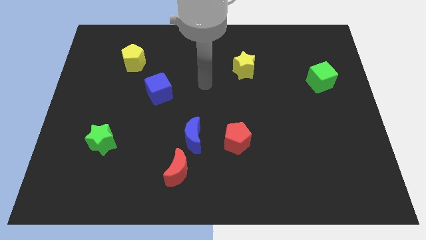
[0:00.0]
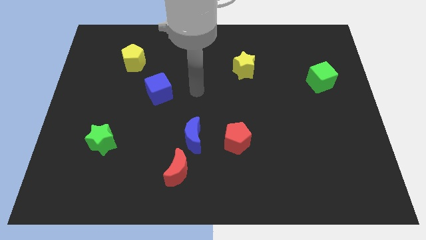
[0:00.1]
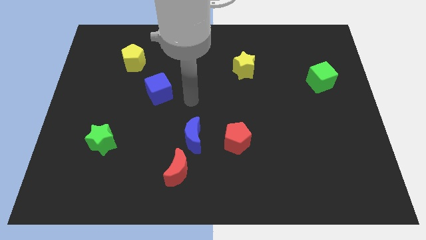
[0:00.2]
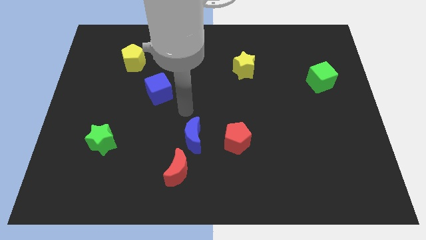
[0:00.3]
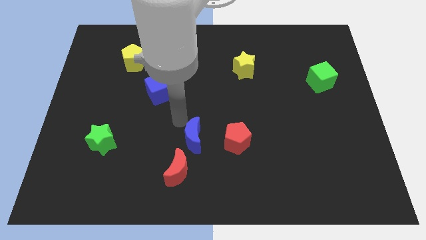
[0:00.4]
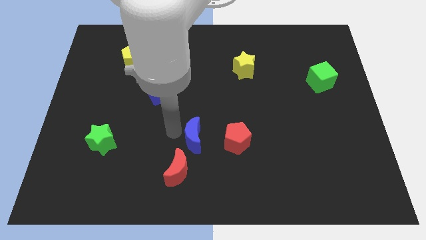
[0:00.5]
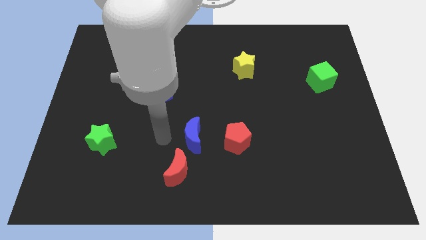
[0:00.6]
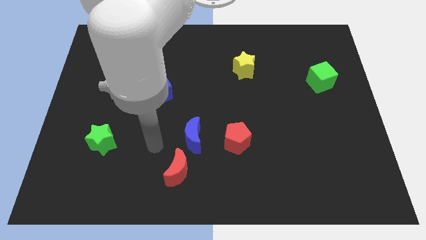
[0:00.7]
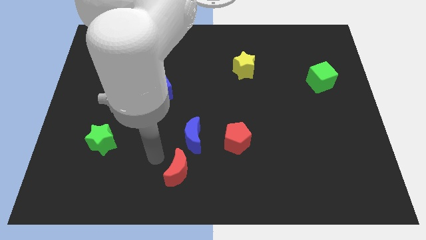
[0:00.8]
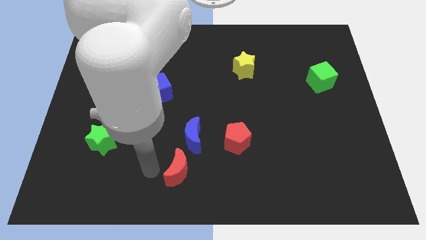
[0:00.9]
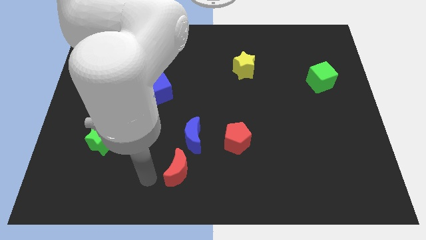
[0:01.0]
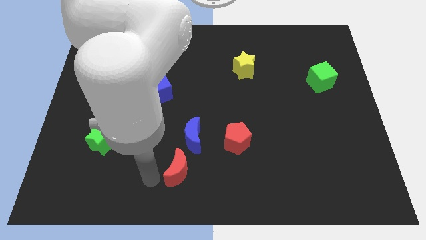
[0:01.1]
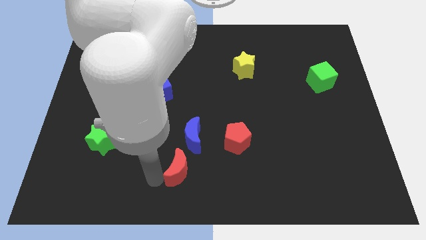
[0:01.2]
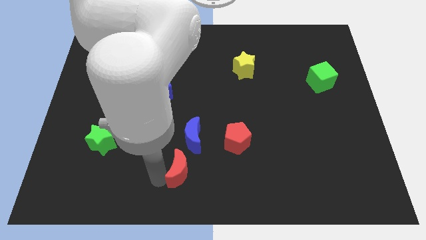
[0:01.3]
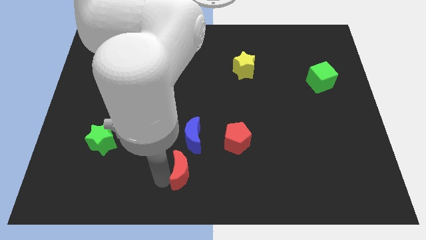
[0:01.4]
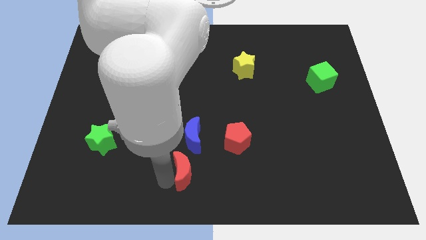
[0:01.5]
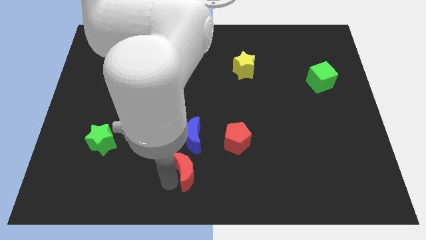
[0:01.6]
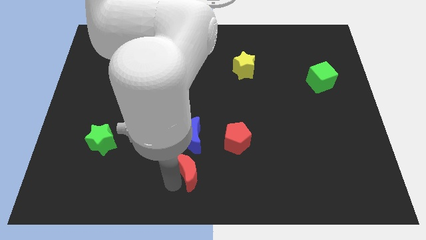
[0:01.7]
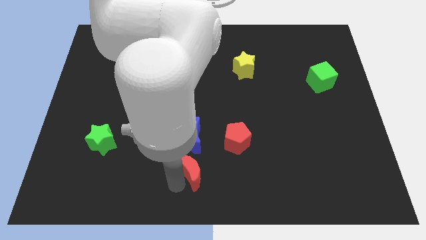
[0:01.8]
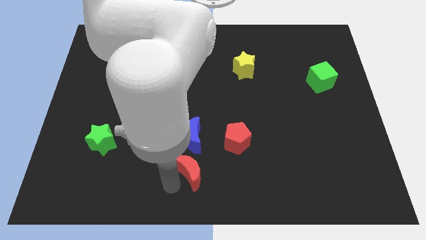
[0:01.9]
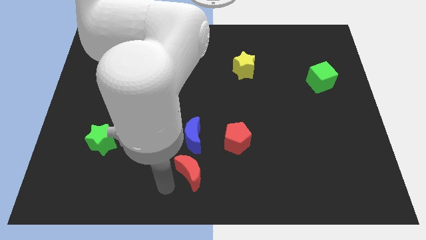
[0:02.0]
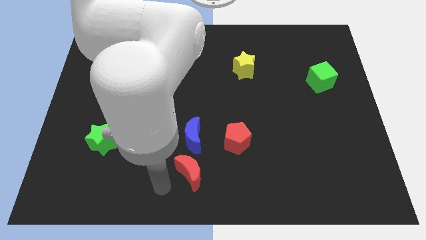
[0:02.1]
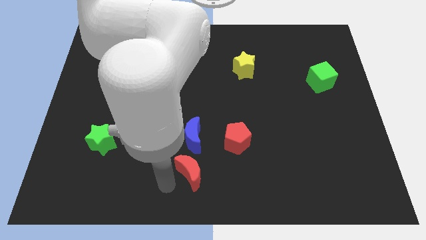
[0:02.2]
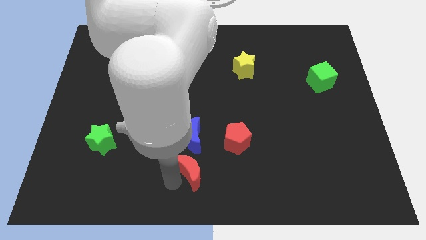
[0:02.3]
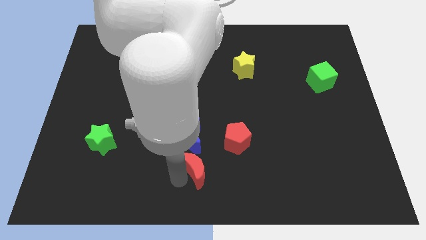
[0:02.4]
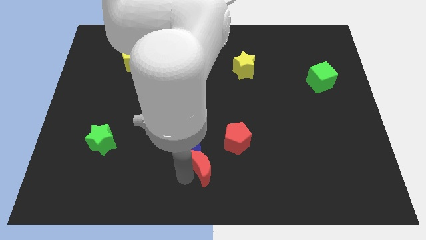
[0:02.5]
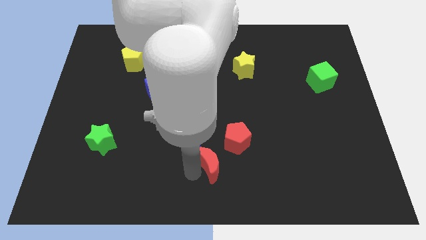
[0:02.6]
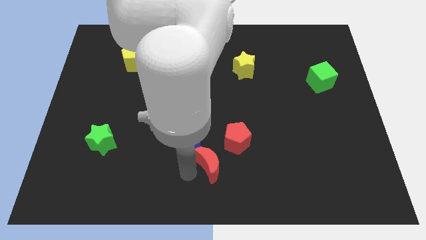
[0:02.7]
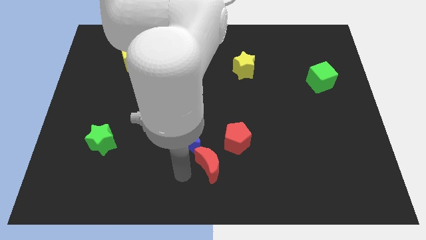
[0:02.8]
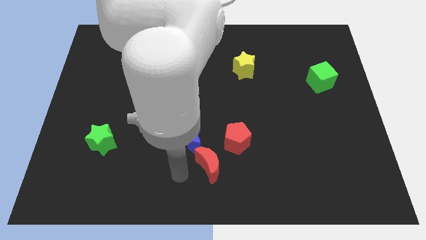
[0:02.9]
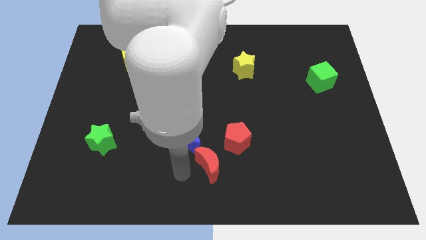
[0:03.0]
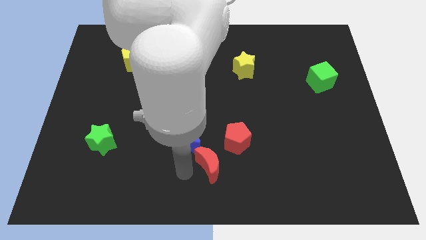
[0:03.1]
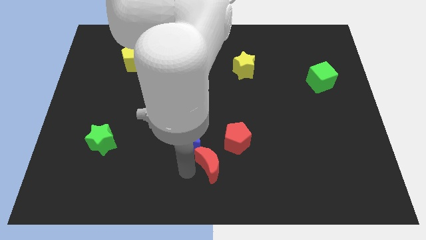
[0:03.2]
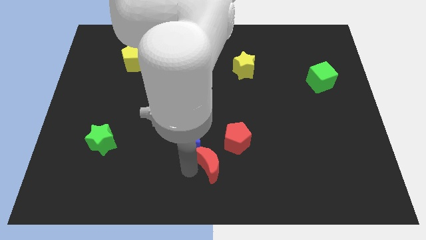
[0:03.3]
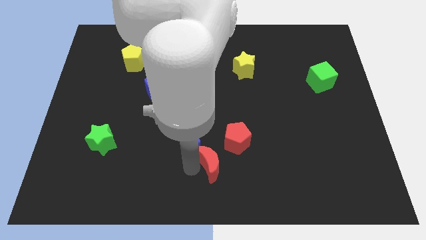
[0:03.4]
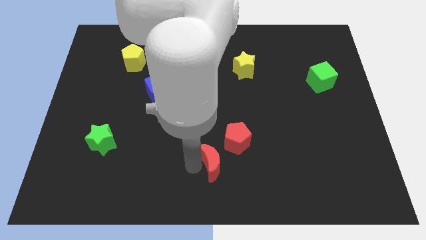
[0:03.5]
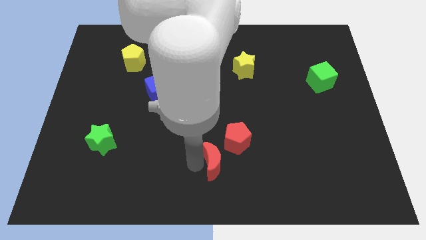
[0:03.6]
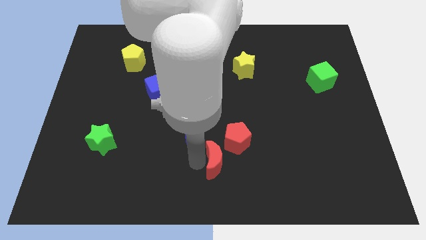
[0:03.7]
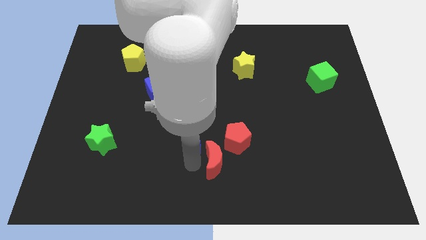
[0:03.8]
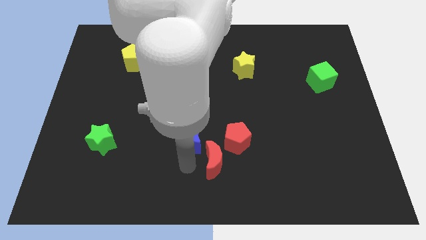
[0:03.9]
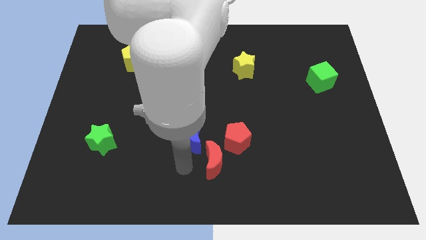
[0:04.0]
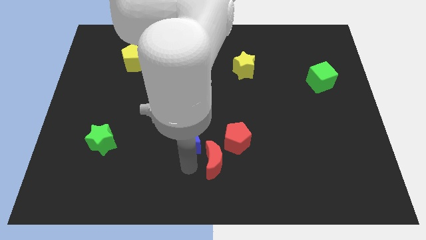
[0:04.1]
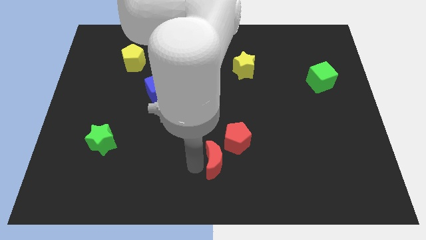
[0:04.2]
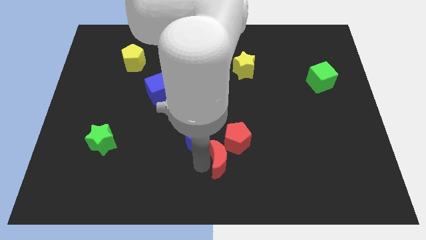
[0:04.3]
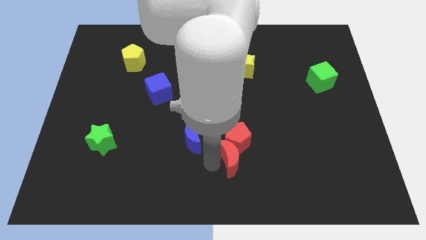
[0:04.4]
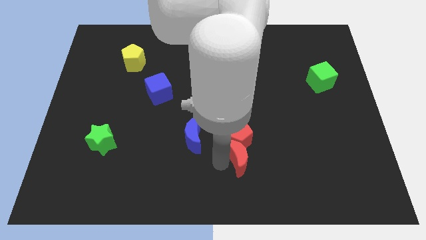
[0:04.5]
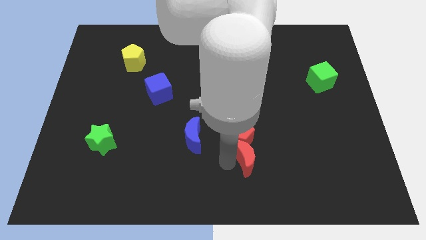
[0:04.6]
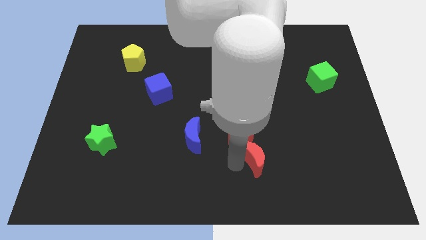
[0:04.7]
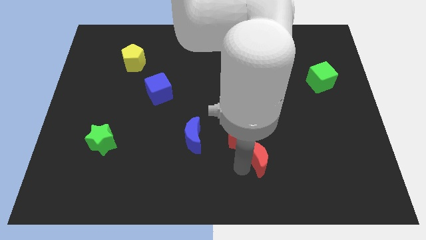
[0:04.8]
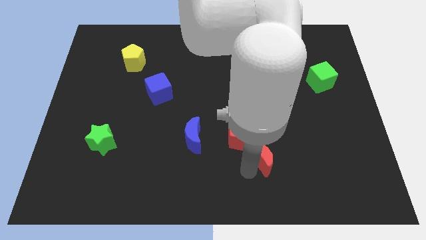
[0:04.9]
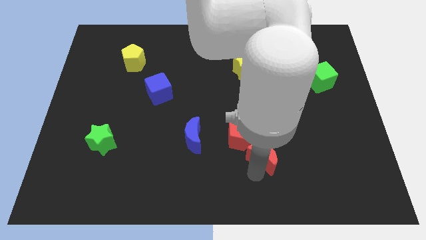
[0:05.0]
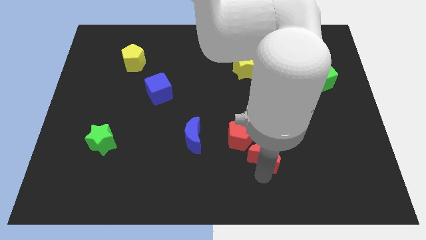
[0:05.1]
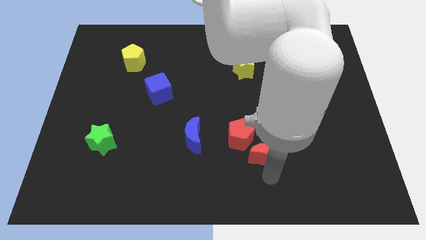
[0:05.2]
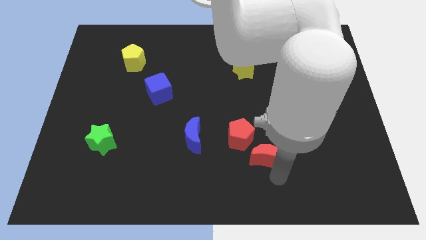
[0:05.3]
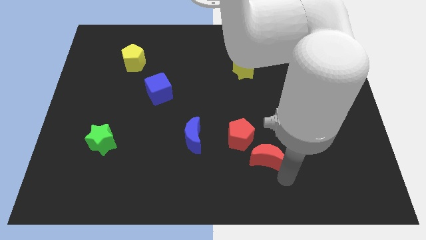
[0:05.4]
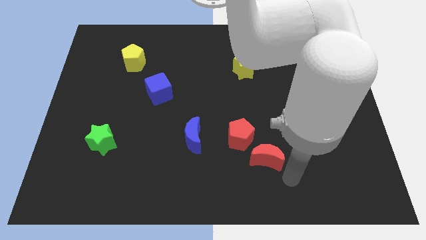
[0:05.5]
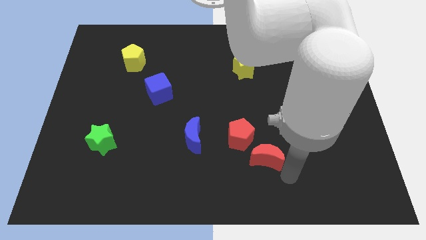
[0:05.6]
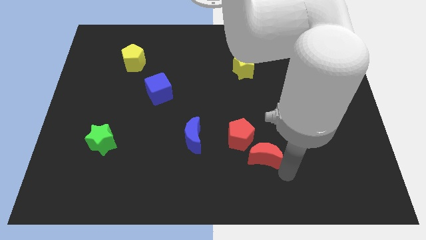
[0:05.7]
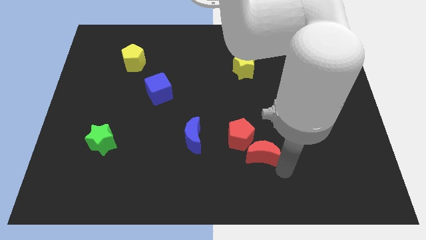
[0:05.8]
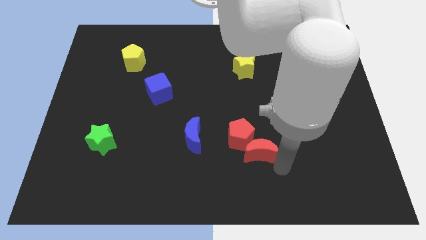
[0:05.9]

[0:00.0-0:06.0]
move the red moon to the right side of the blue moon

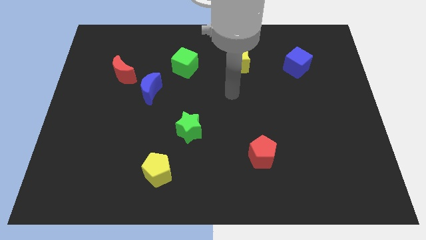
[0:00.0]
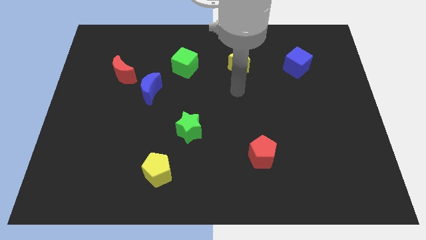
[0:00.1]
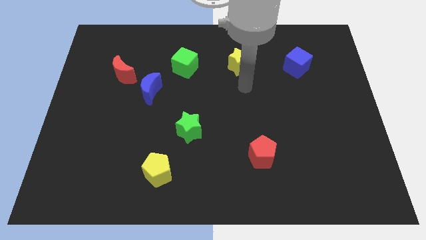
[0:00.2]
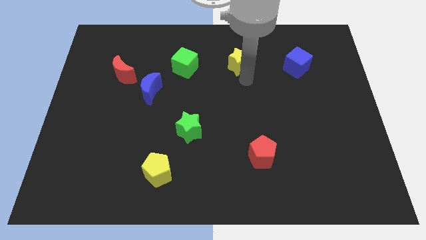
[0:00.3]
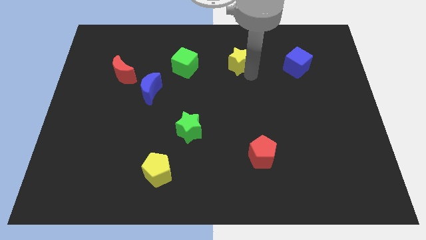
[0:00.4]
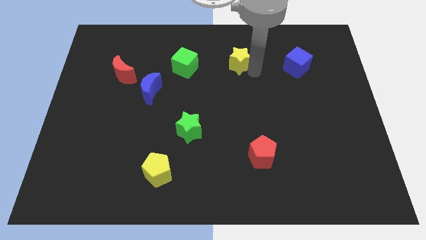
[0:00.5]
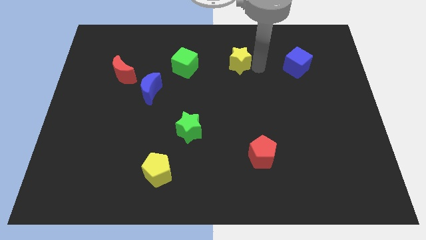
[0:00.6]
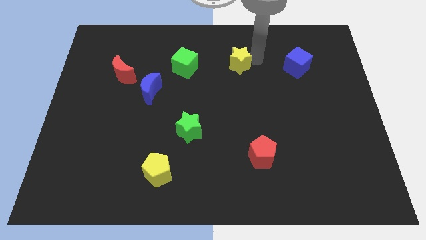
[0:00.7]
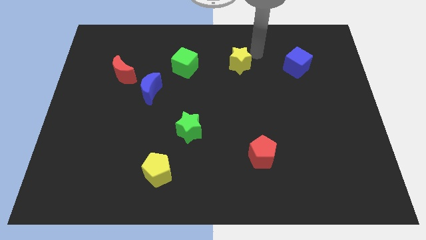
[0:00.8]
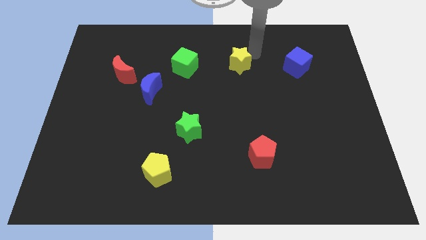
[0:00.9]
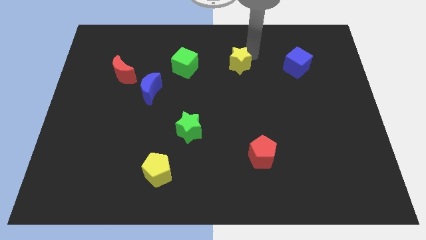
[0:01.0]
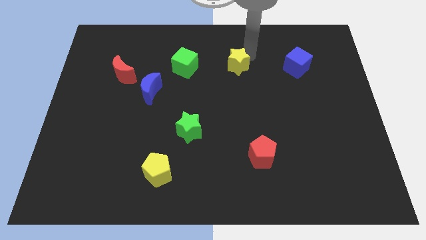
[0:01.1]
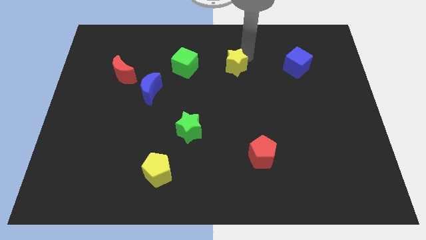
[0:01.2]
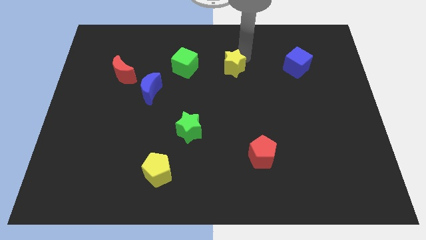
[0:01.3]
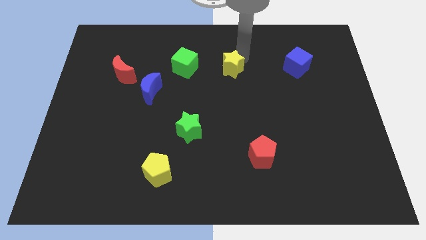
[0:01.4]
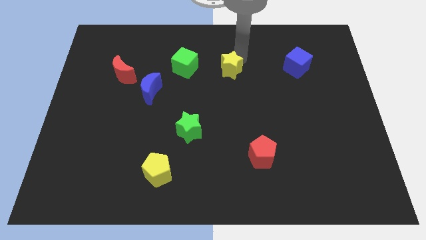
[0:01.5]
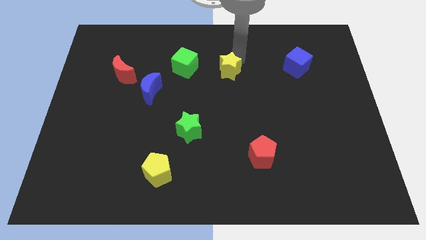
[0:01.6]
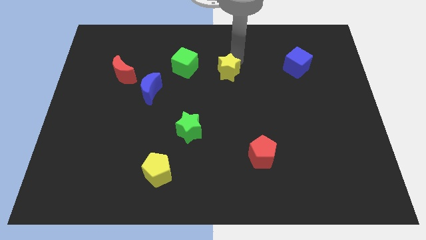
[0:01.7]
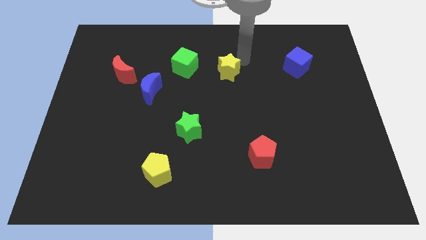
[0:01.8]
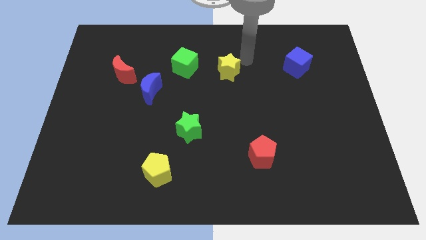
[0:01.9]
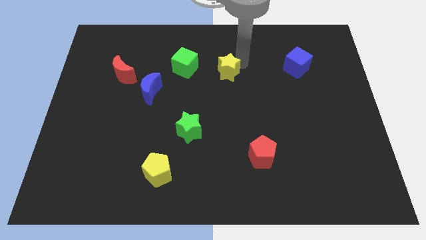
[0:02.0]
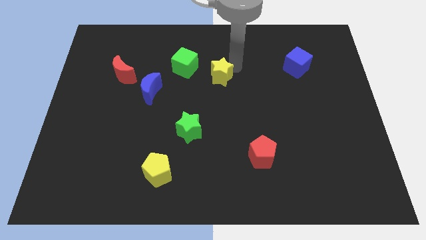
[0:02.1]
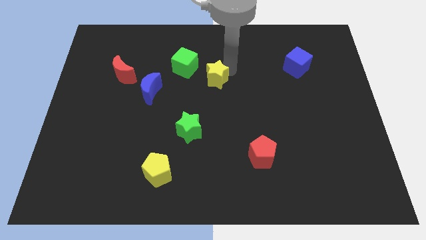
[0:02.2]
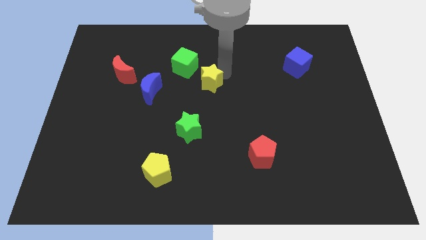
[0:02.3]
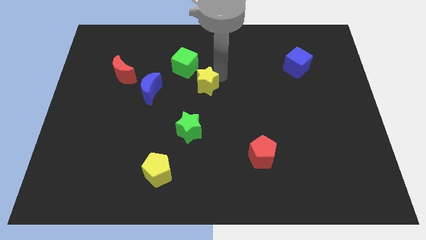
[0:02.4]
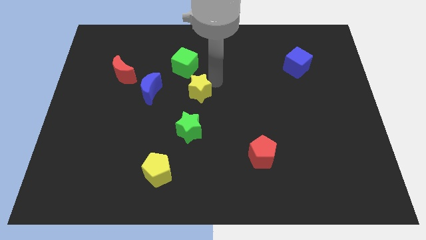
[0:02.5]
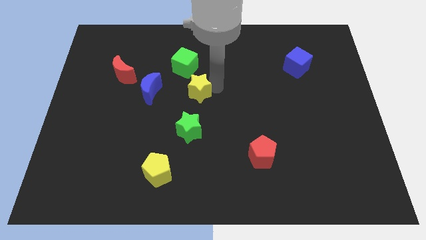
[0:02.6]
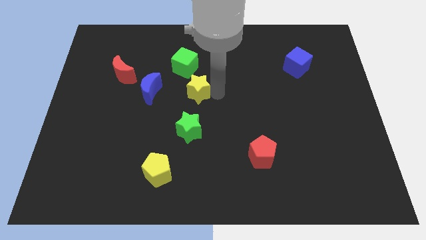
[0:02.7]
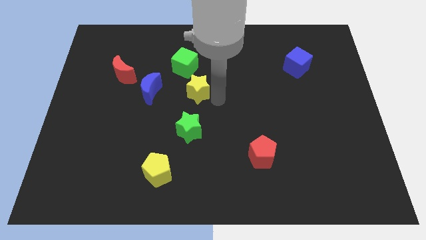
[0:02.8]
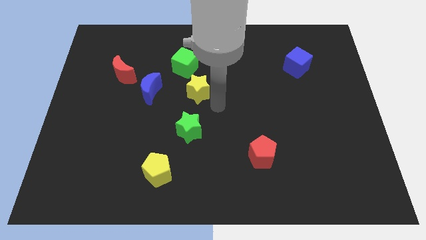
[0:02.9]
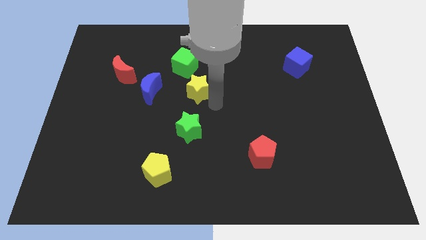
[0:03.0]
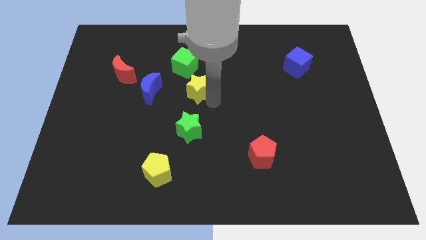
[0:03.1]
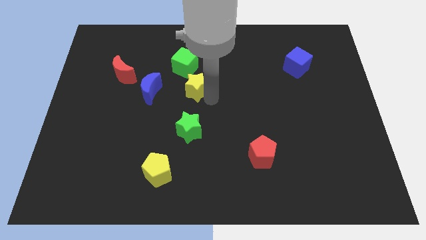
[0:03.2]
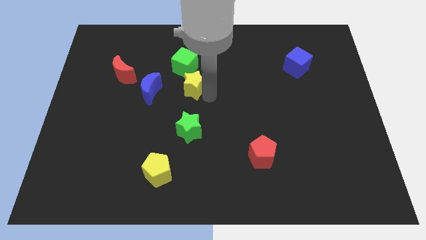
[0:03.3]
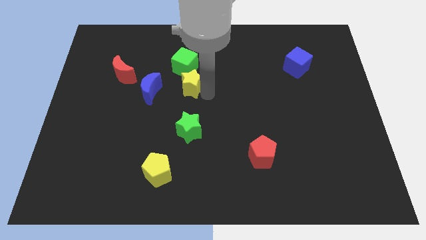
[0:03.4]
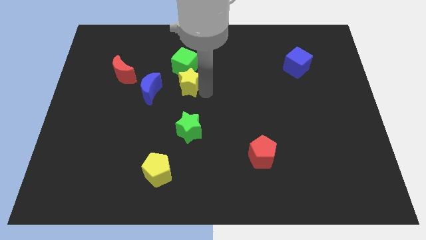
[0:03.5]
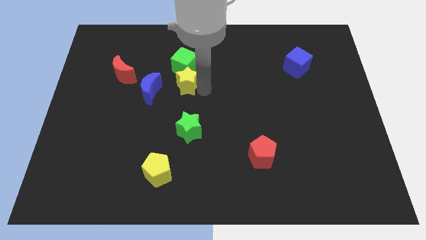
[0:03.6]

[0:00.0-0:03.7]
move the yellow star to the top right of the blue moon
